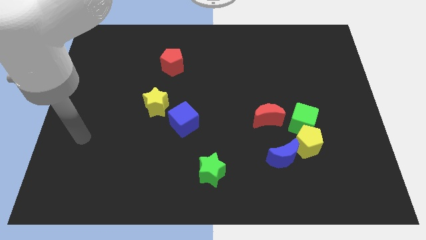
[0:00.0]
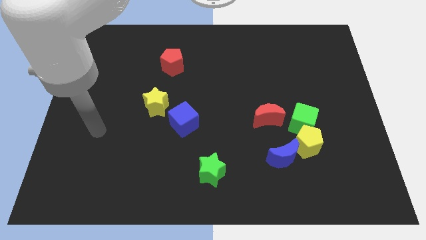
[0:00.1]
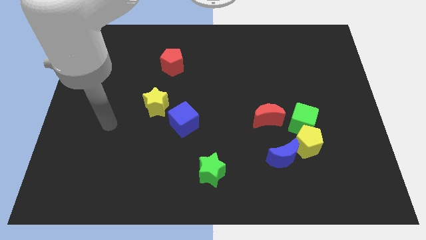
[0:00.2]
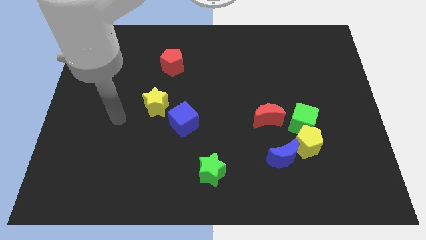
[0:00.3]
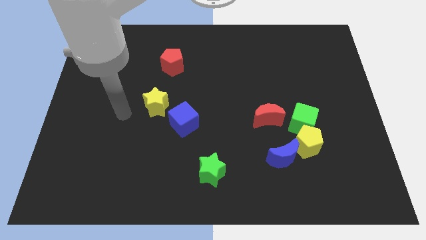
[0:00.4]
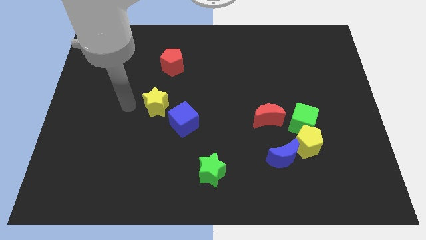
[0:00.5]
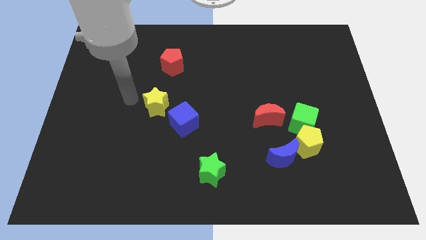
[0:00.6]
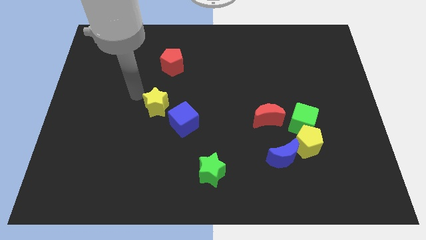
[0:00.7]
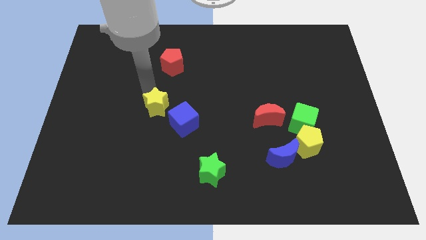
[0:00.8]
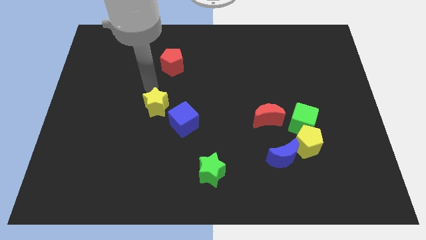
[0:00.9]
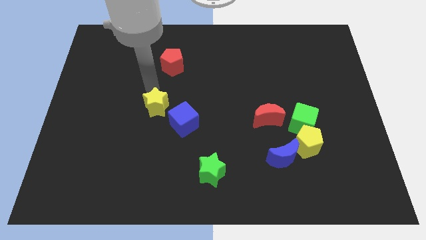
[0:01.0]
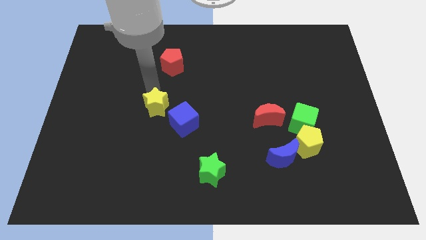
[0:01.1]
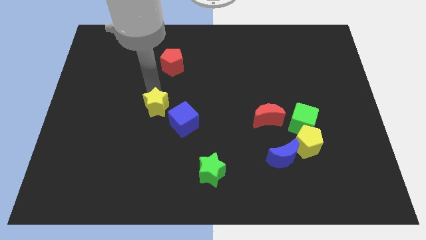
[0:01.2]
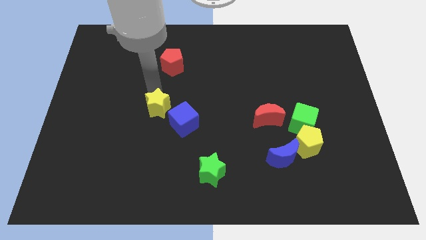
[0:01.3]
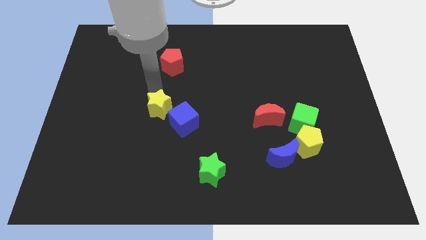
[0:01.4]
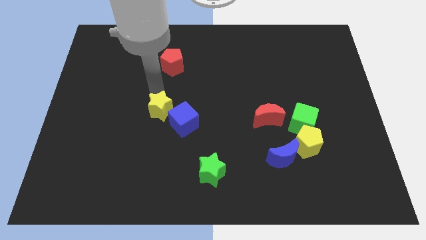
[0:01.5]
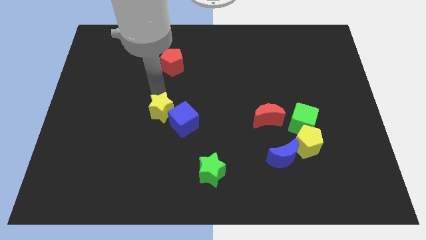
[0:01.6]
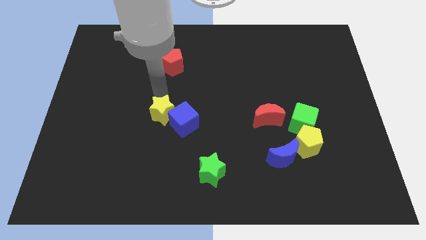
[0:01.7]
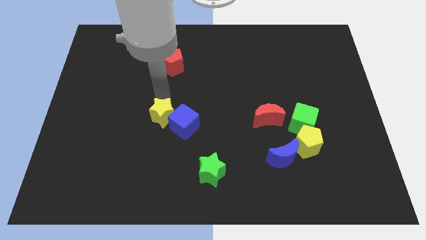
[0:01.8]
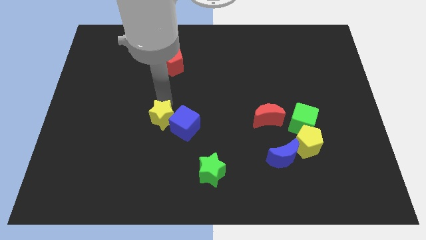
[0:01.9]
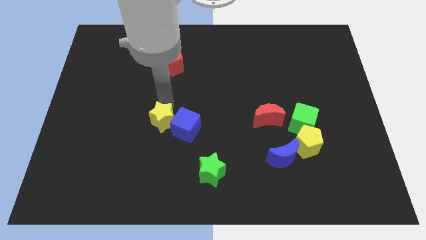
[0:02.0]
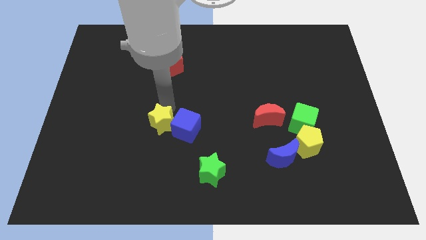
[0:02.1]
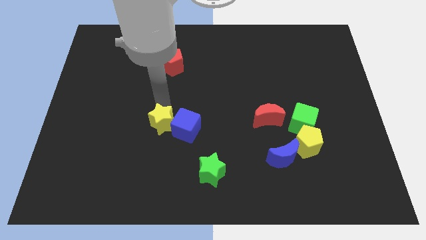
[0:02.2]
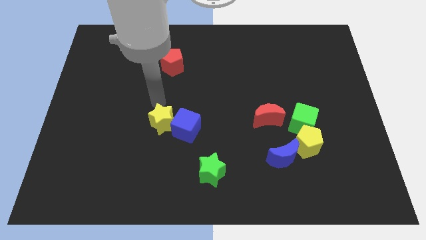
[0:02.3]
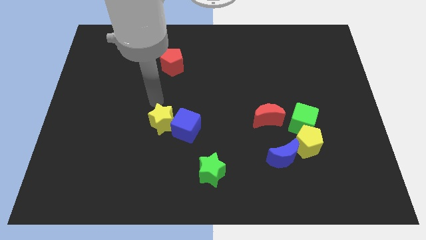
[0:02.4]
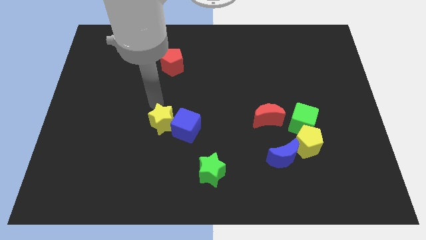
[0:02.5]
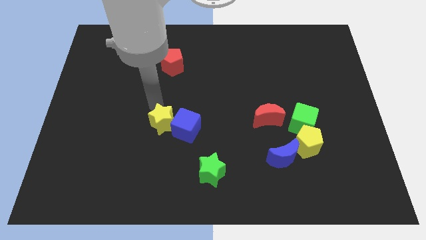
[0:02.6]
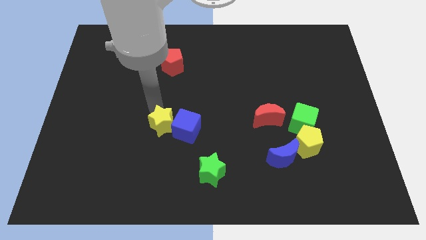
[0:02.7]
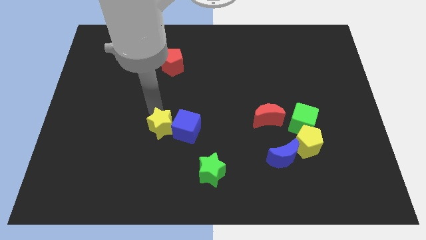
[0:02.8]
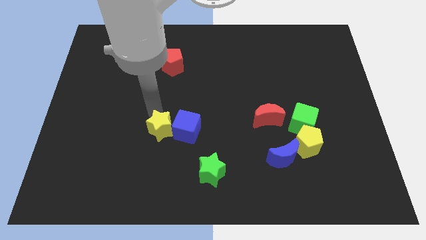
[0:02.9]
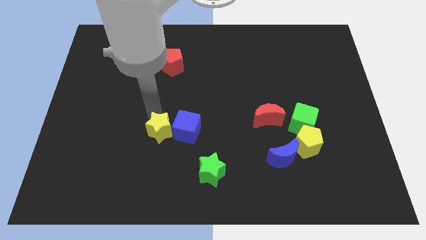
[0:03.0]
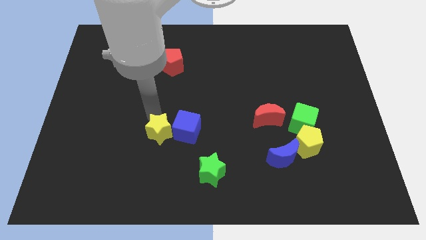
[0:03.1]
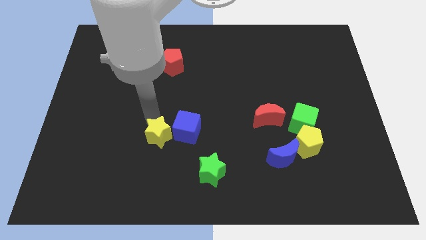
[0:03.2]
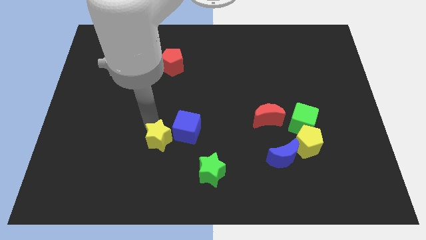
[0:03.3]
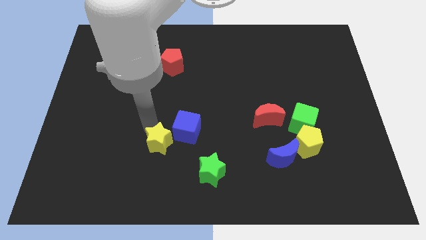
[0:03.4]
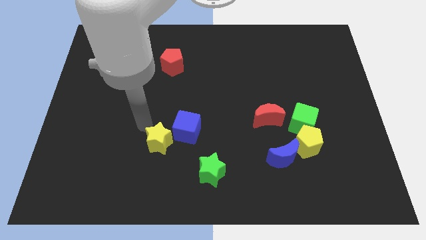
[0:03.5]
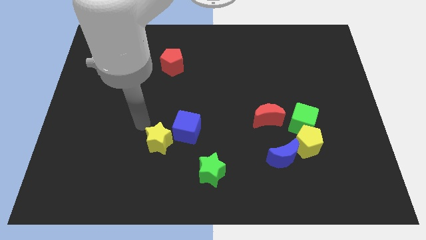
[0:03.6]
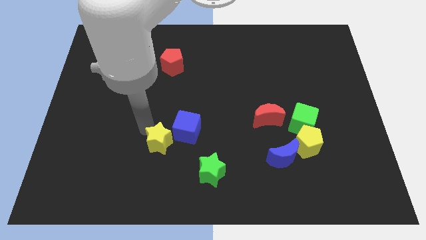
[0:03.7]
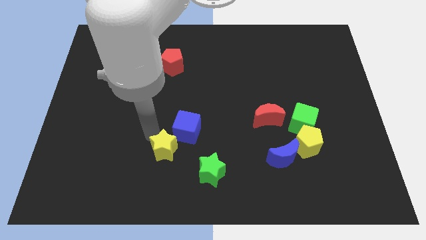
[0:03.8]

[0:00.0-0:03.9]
put the yellow star below the blue cube

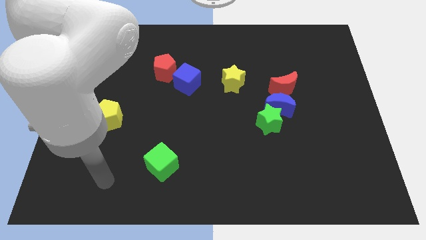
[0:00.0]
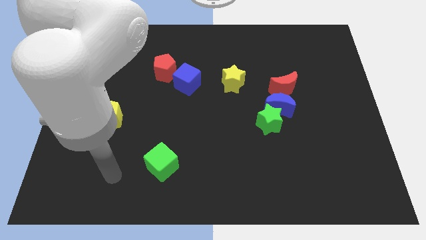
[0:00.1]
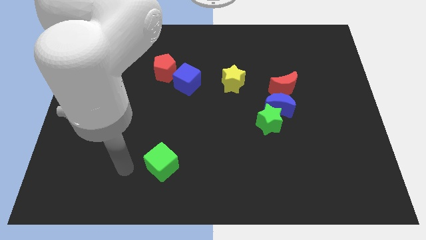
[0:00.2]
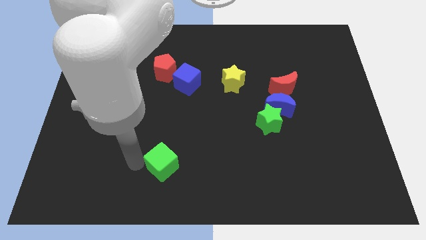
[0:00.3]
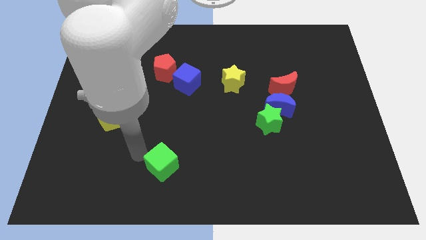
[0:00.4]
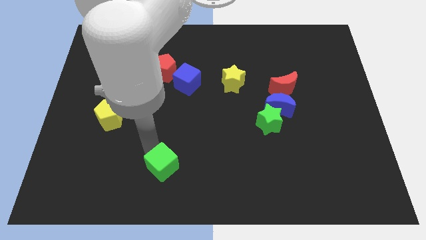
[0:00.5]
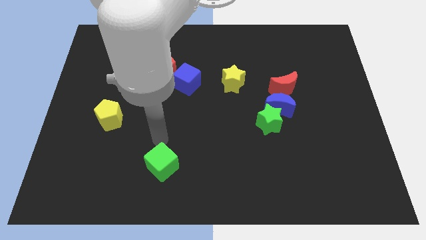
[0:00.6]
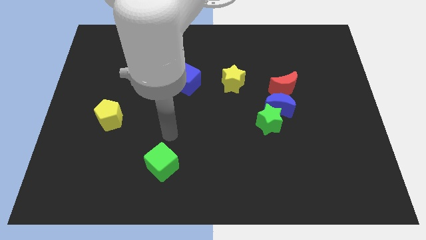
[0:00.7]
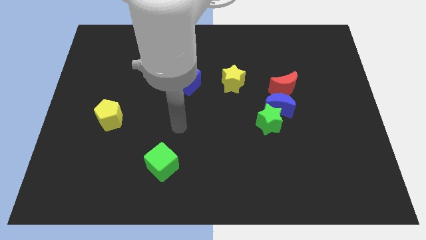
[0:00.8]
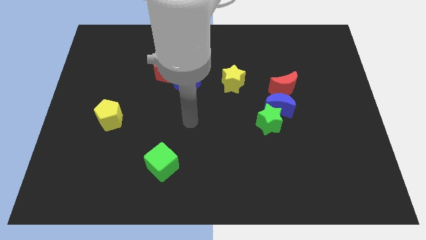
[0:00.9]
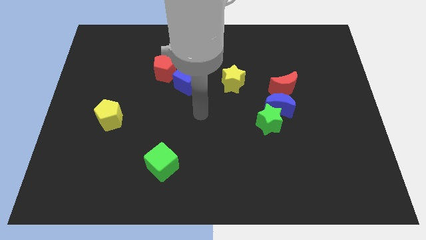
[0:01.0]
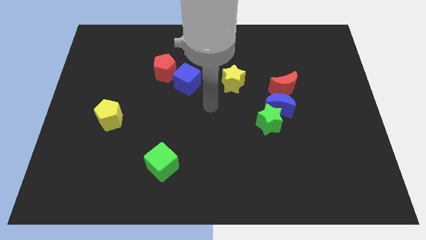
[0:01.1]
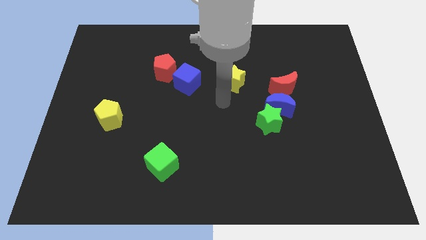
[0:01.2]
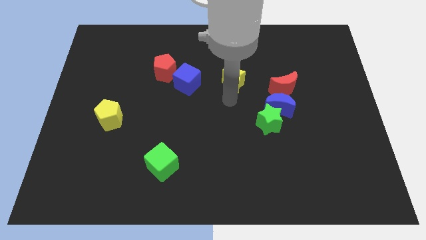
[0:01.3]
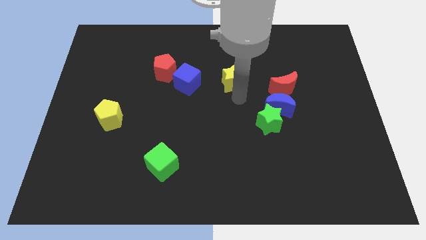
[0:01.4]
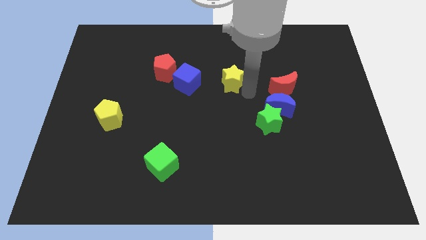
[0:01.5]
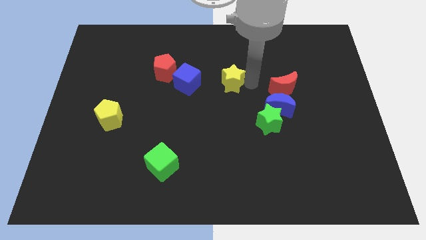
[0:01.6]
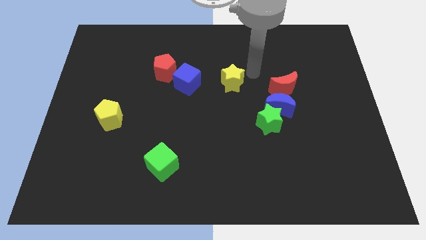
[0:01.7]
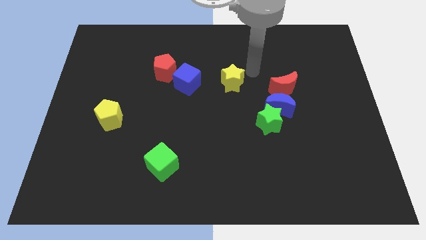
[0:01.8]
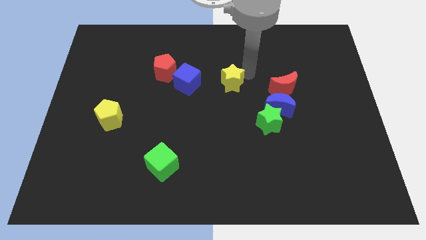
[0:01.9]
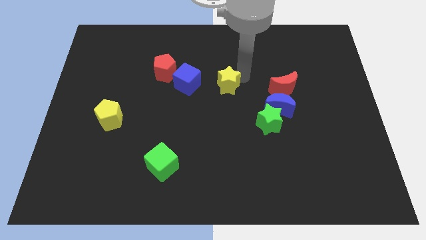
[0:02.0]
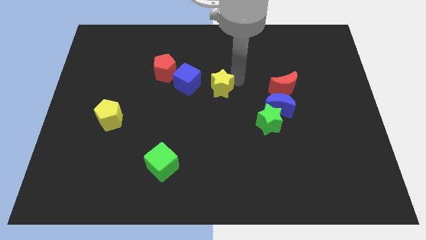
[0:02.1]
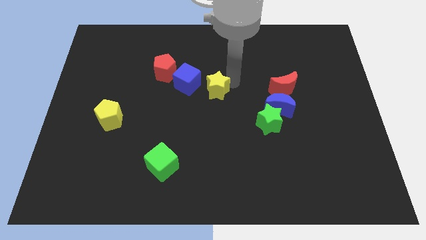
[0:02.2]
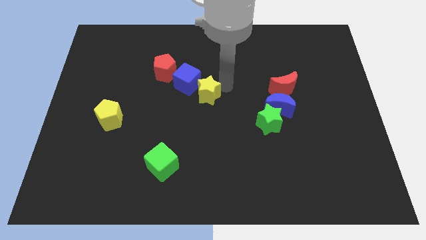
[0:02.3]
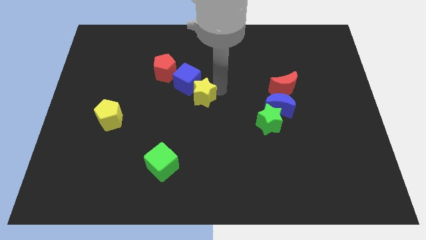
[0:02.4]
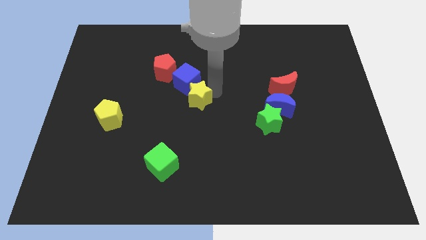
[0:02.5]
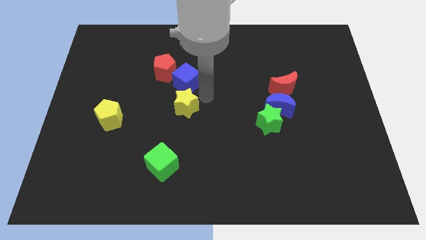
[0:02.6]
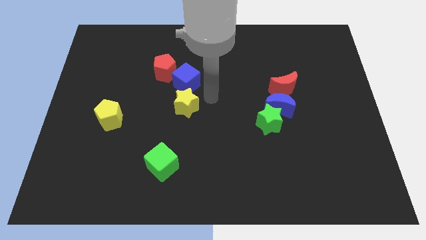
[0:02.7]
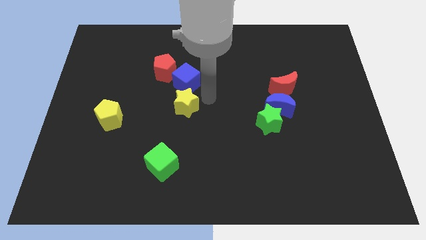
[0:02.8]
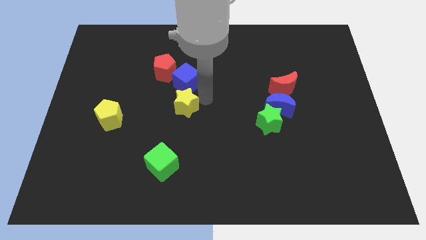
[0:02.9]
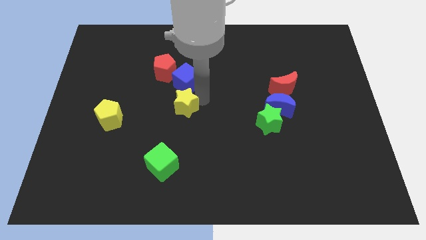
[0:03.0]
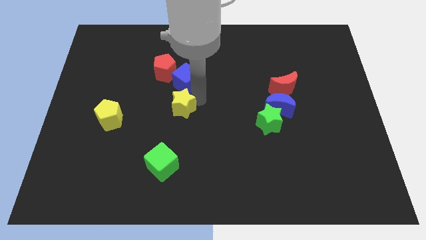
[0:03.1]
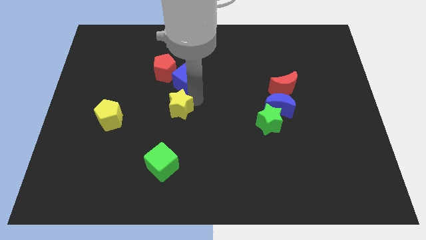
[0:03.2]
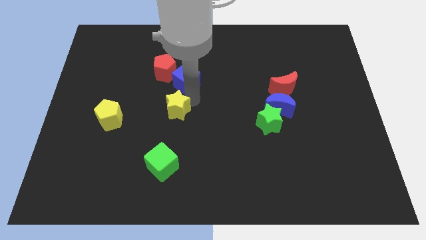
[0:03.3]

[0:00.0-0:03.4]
put the yellow star to the right of the yellow pentagon
